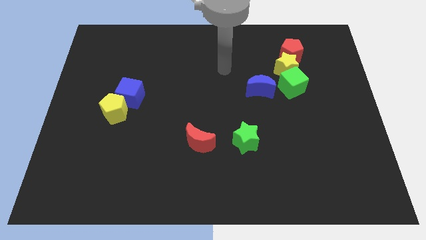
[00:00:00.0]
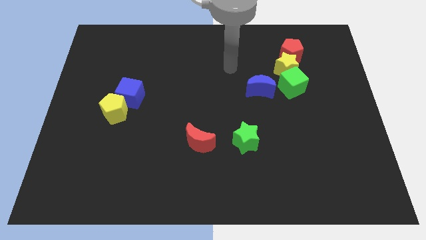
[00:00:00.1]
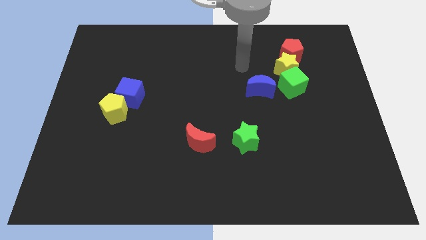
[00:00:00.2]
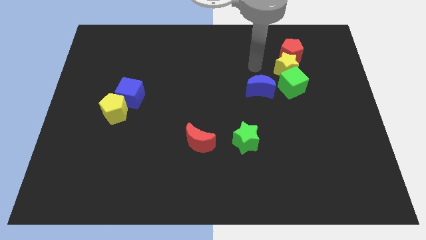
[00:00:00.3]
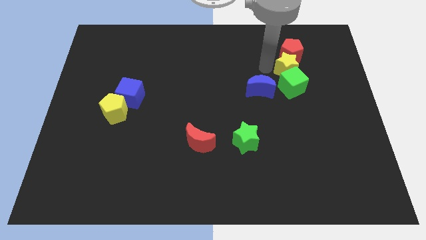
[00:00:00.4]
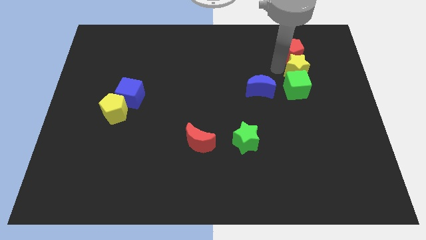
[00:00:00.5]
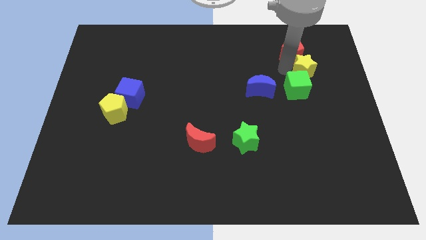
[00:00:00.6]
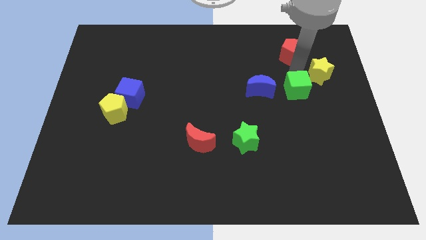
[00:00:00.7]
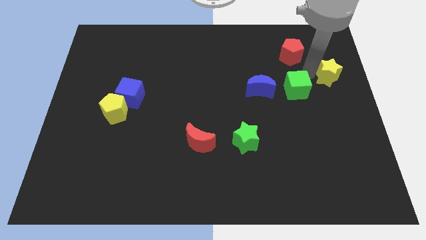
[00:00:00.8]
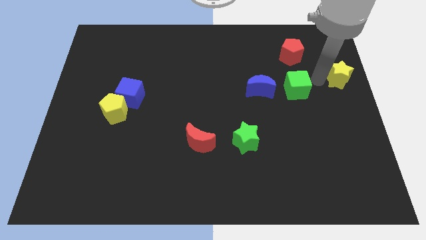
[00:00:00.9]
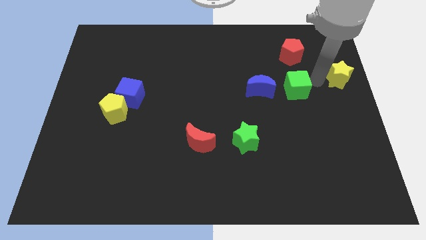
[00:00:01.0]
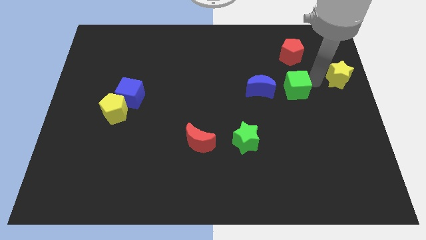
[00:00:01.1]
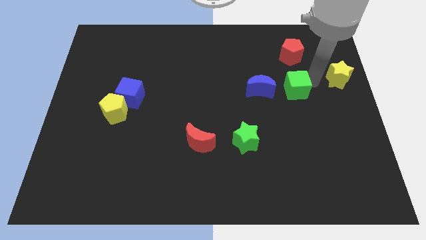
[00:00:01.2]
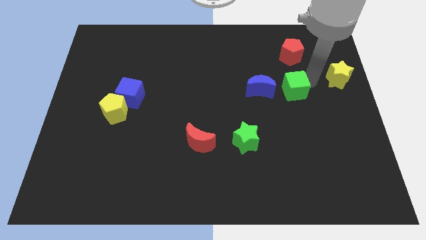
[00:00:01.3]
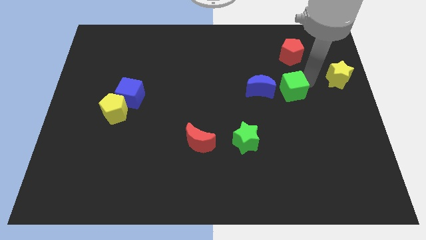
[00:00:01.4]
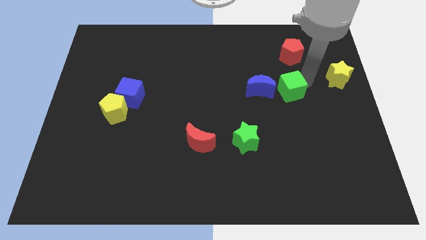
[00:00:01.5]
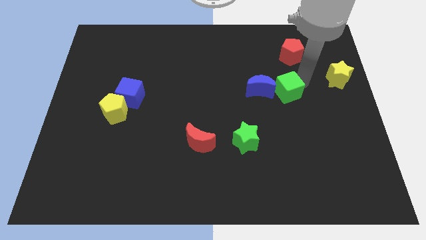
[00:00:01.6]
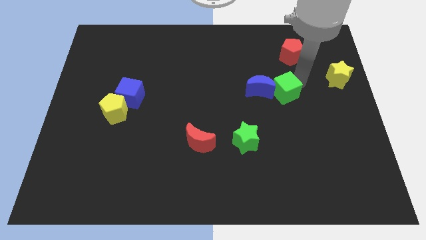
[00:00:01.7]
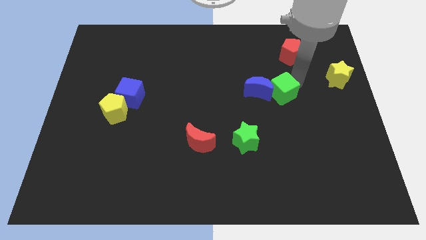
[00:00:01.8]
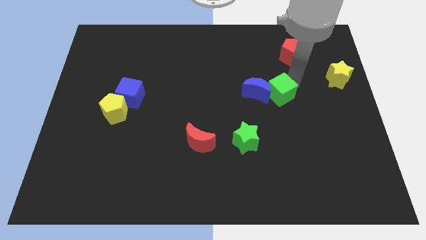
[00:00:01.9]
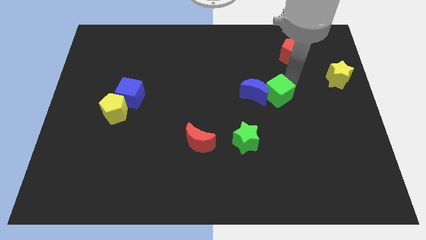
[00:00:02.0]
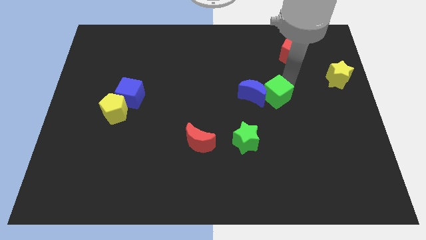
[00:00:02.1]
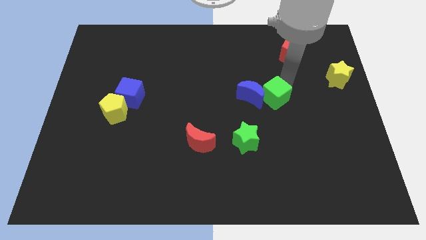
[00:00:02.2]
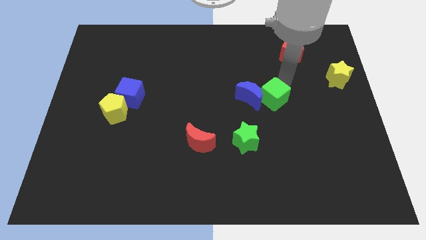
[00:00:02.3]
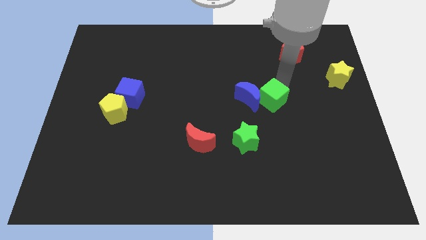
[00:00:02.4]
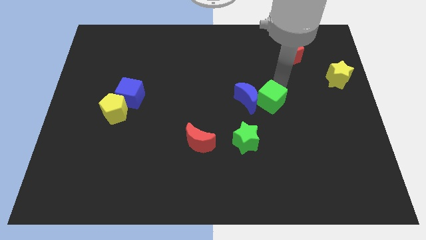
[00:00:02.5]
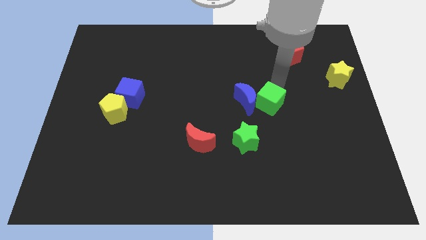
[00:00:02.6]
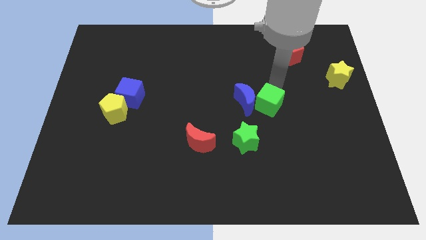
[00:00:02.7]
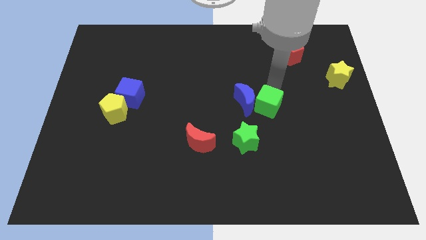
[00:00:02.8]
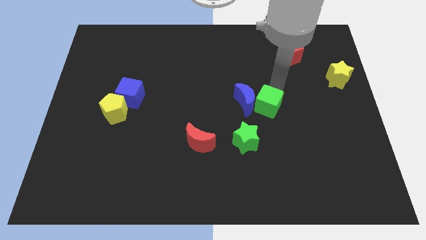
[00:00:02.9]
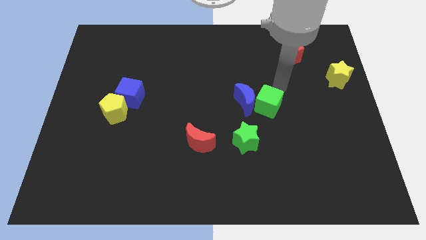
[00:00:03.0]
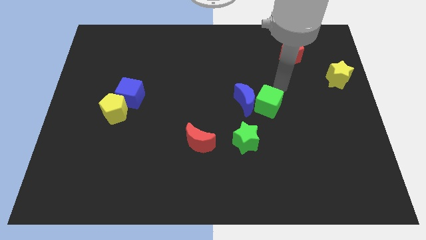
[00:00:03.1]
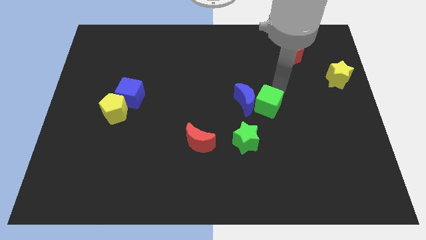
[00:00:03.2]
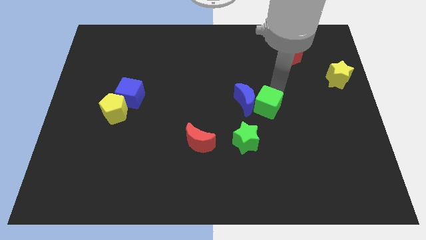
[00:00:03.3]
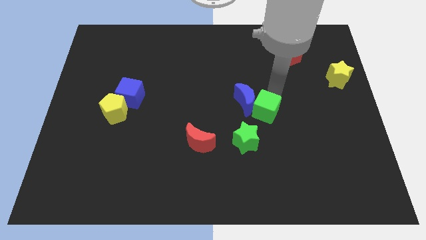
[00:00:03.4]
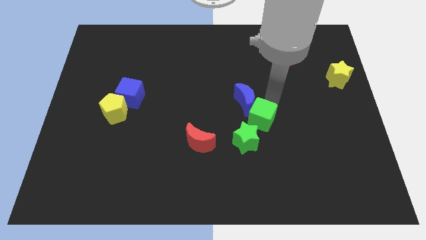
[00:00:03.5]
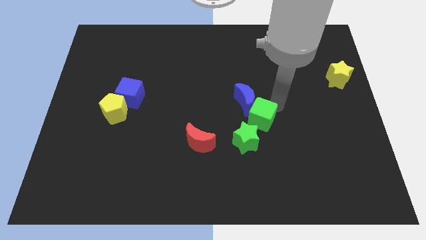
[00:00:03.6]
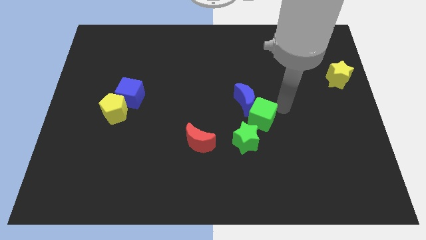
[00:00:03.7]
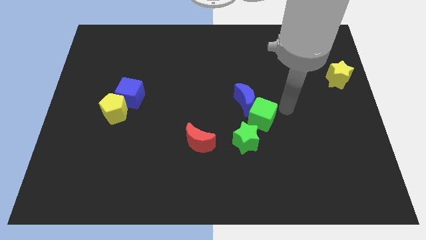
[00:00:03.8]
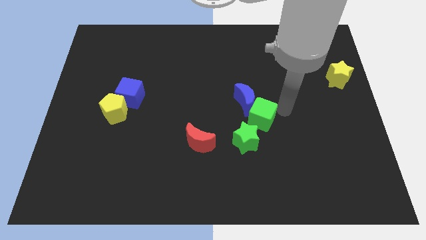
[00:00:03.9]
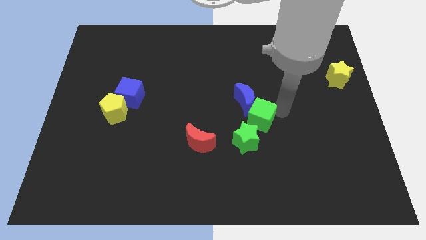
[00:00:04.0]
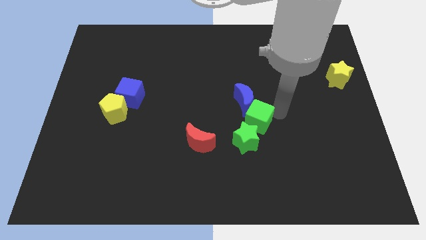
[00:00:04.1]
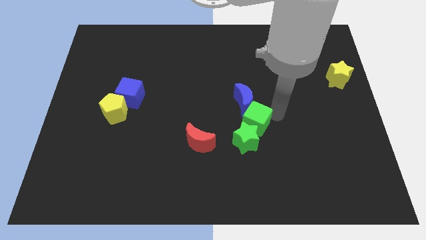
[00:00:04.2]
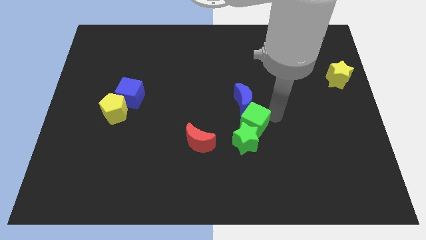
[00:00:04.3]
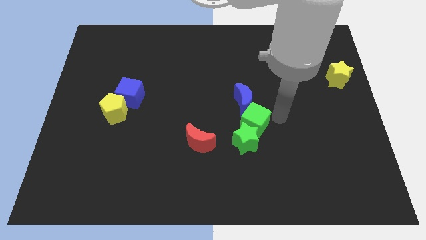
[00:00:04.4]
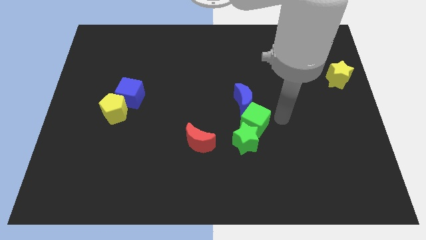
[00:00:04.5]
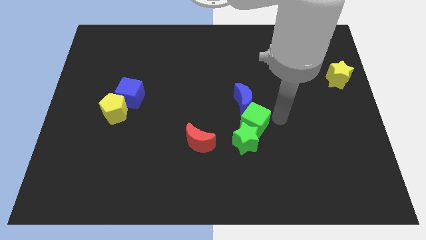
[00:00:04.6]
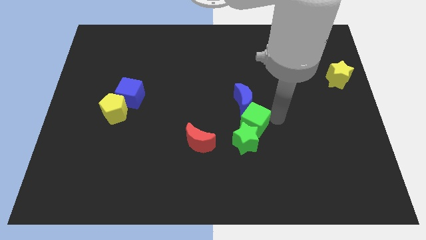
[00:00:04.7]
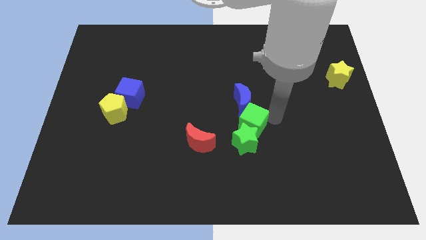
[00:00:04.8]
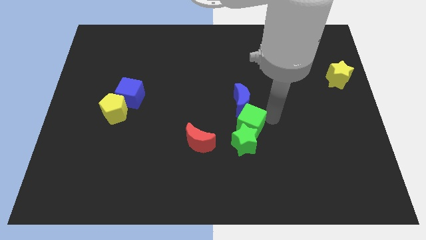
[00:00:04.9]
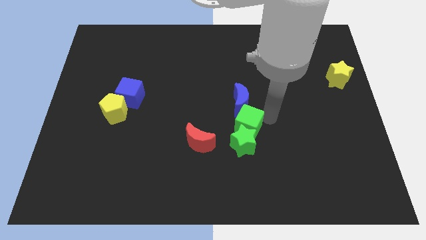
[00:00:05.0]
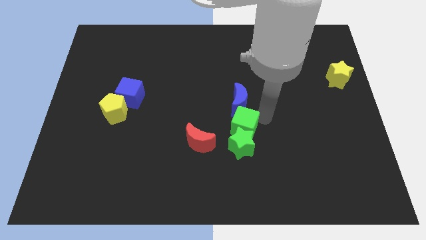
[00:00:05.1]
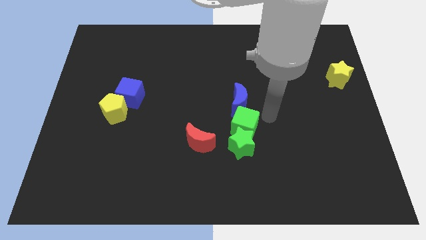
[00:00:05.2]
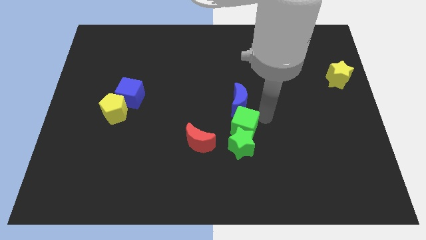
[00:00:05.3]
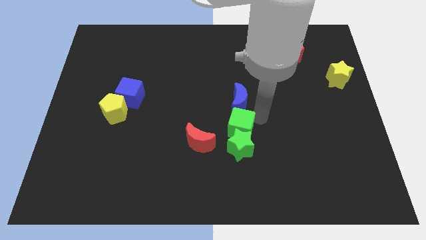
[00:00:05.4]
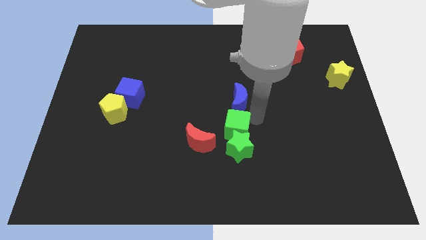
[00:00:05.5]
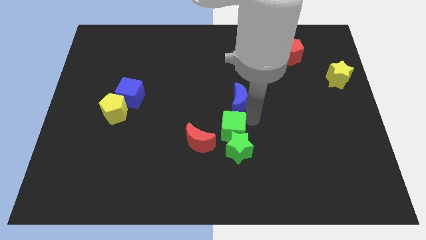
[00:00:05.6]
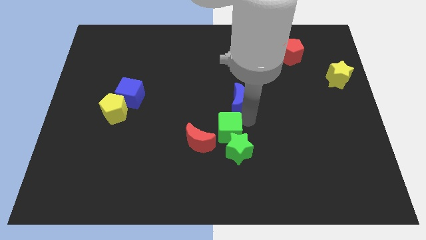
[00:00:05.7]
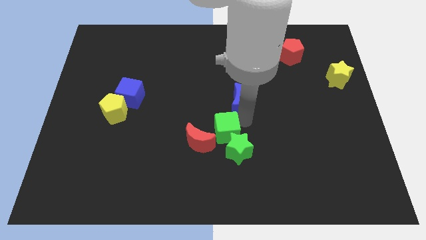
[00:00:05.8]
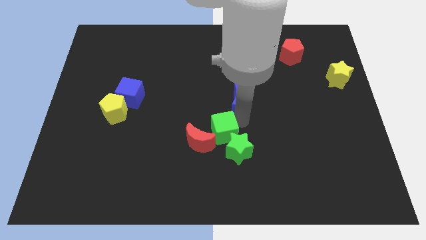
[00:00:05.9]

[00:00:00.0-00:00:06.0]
put the green cube to the red moon

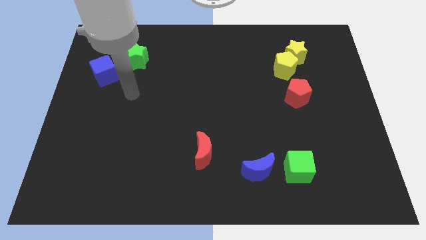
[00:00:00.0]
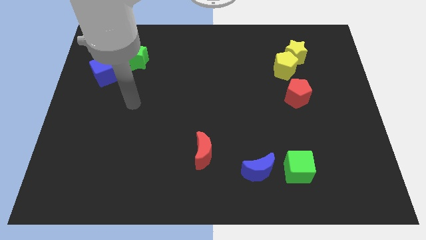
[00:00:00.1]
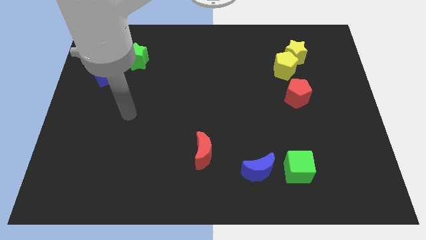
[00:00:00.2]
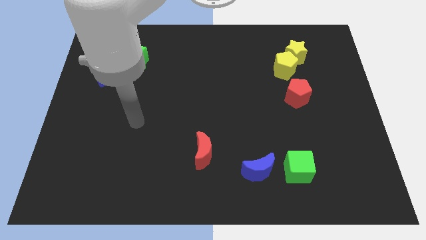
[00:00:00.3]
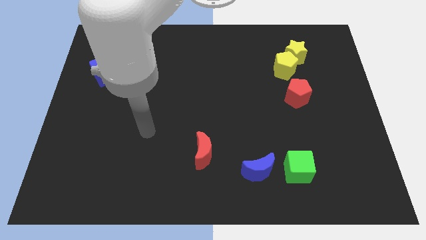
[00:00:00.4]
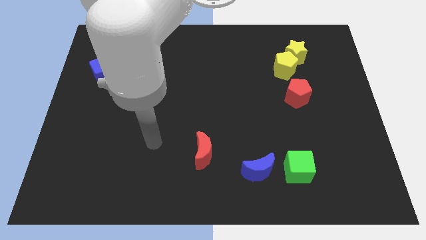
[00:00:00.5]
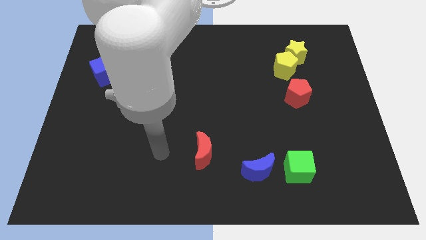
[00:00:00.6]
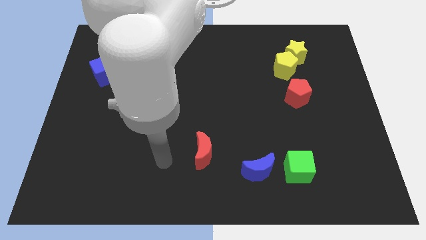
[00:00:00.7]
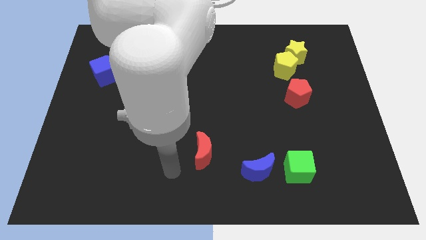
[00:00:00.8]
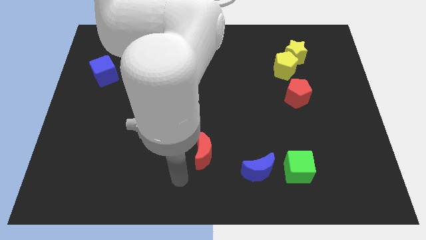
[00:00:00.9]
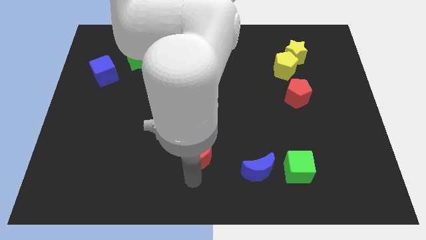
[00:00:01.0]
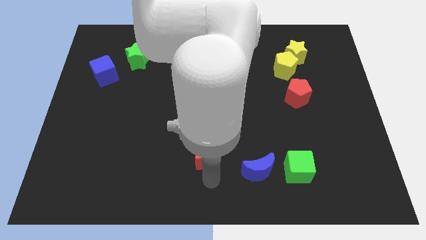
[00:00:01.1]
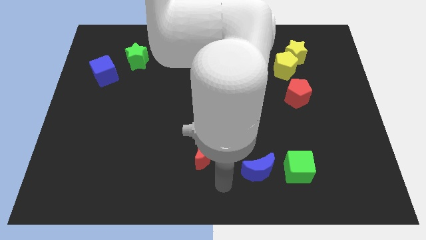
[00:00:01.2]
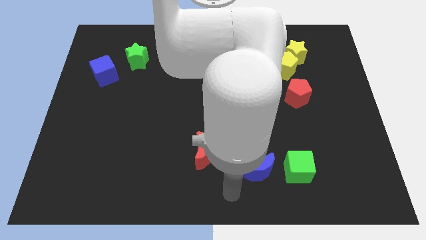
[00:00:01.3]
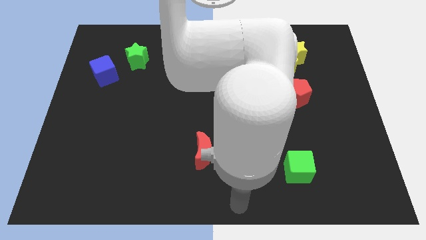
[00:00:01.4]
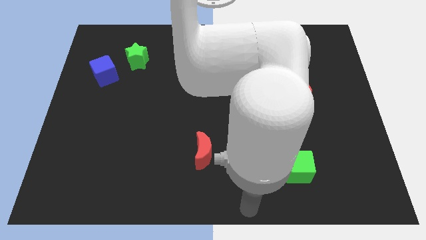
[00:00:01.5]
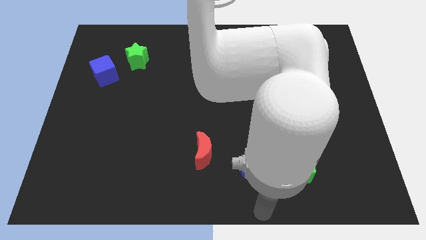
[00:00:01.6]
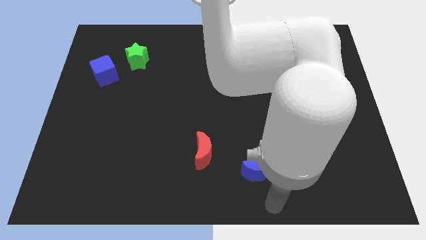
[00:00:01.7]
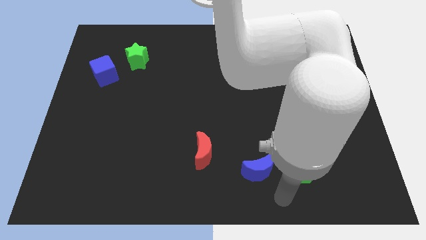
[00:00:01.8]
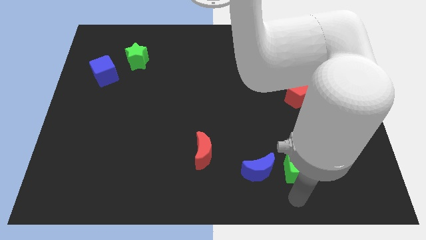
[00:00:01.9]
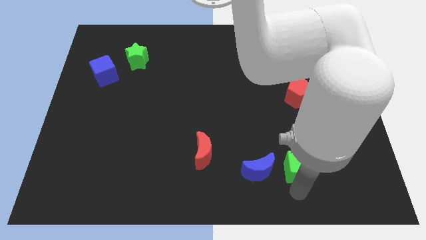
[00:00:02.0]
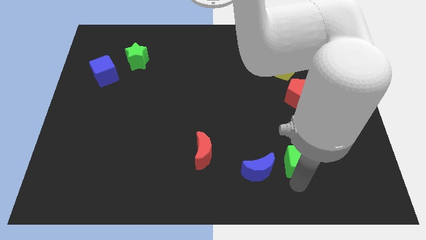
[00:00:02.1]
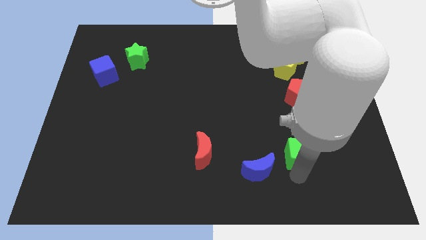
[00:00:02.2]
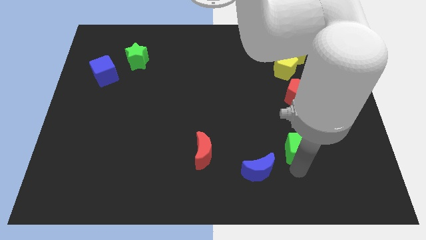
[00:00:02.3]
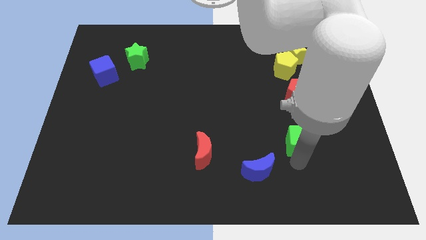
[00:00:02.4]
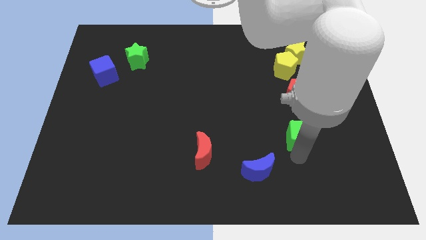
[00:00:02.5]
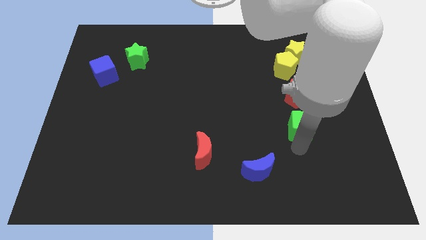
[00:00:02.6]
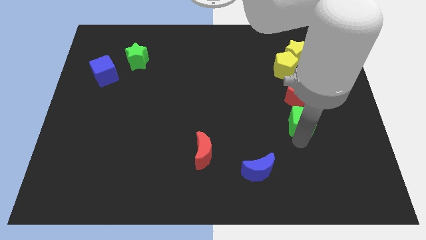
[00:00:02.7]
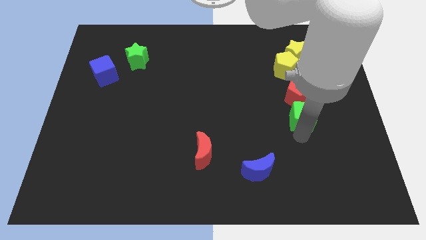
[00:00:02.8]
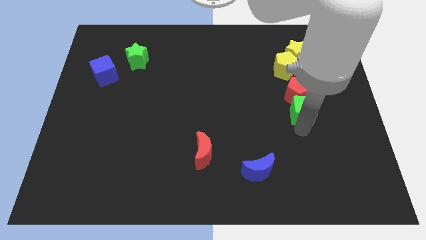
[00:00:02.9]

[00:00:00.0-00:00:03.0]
move the green cube towards the red pentagon
